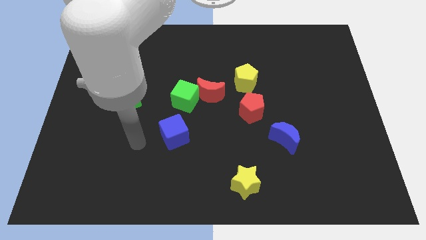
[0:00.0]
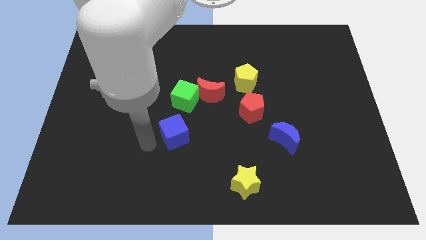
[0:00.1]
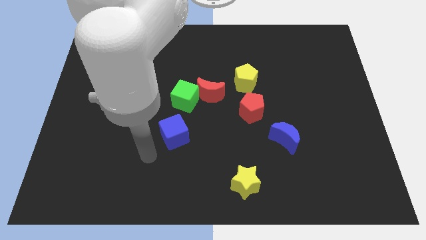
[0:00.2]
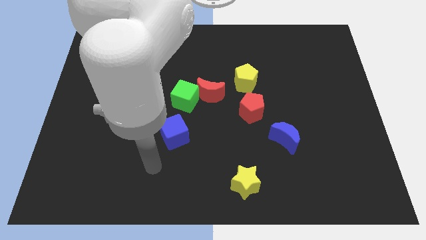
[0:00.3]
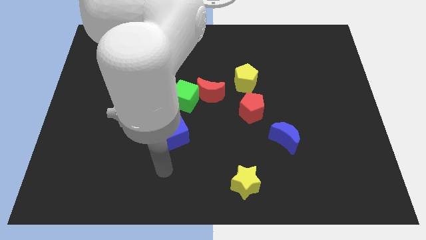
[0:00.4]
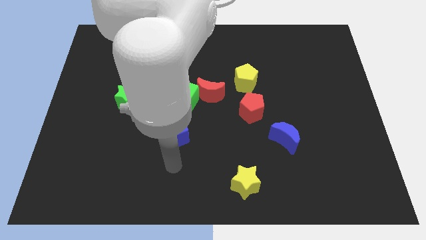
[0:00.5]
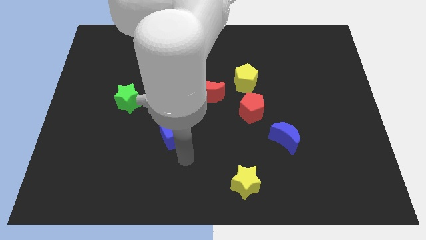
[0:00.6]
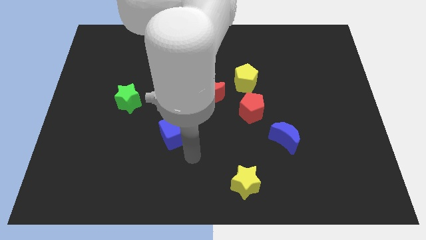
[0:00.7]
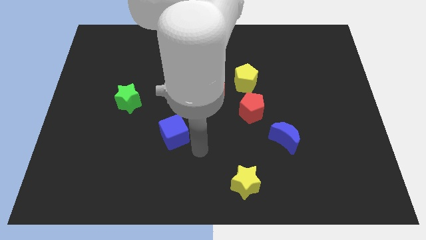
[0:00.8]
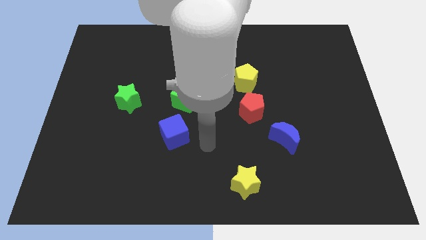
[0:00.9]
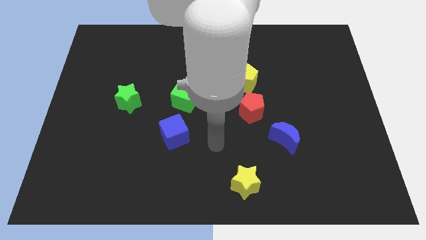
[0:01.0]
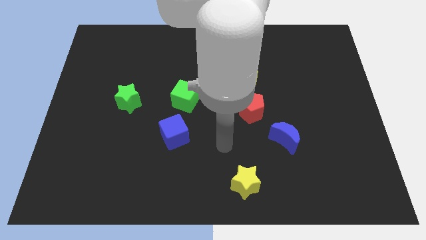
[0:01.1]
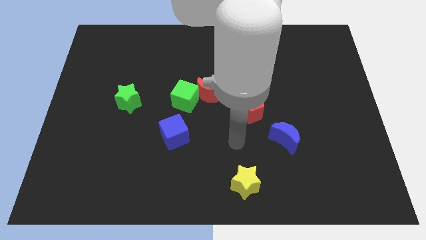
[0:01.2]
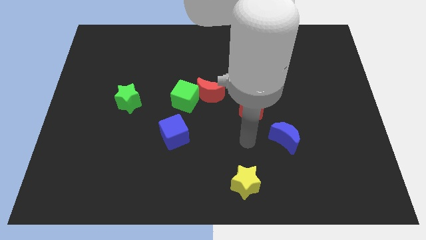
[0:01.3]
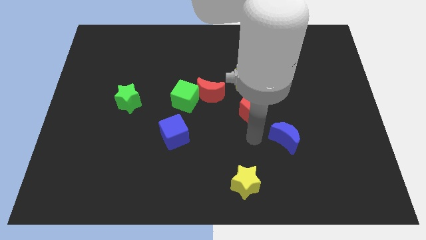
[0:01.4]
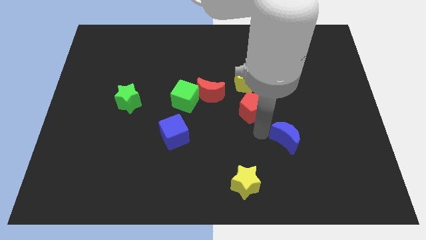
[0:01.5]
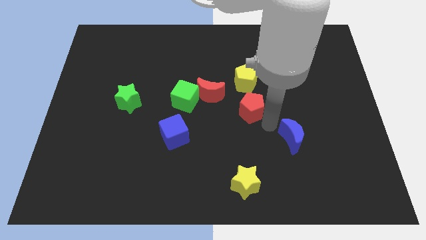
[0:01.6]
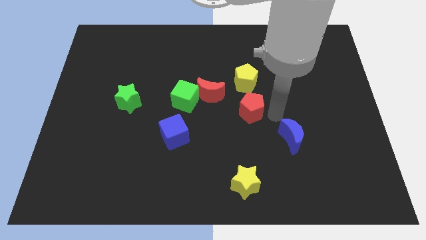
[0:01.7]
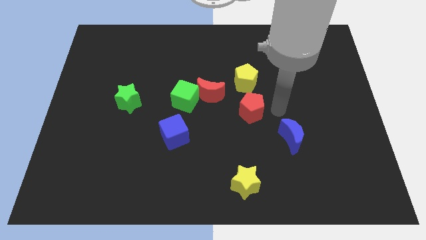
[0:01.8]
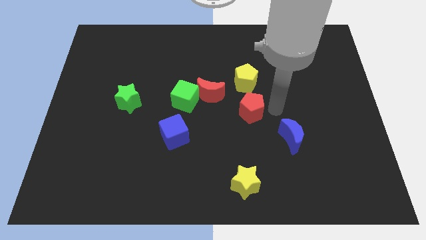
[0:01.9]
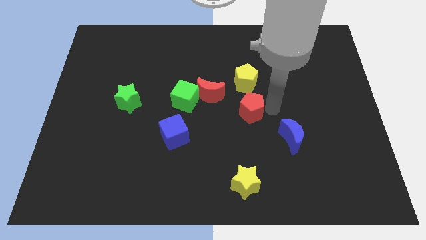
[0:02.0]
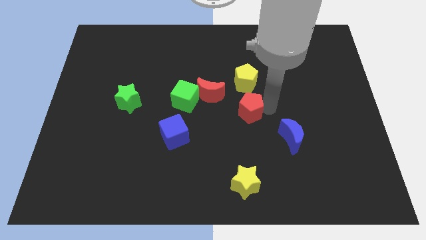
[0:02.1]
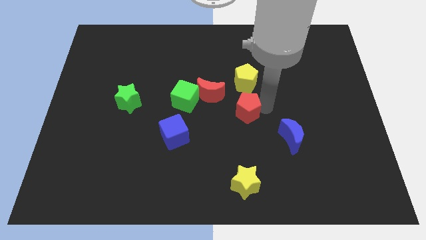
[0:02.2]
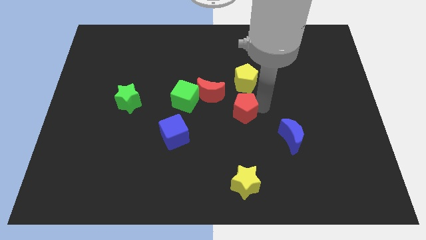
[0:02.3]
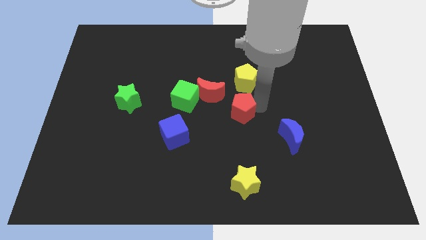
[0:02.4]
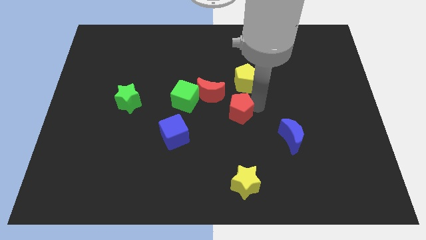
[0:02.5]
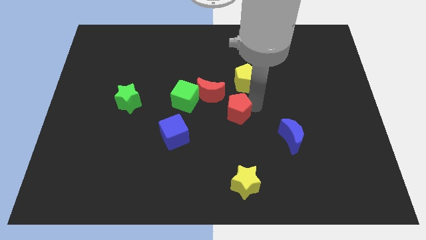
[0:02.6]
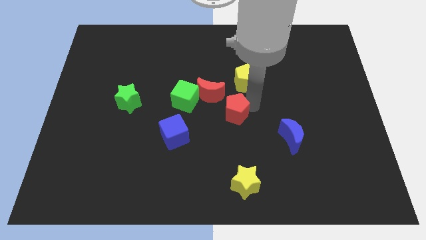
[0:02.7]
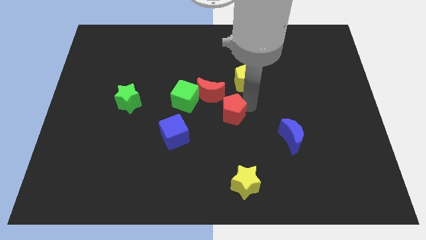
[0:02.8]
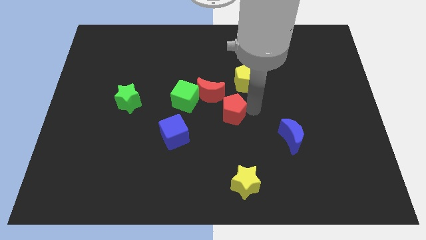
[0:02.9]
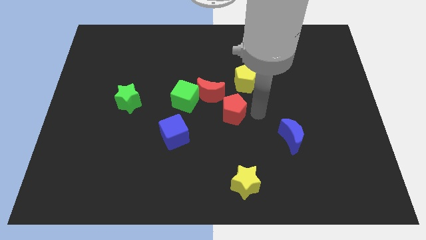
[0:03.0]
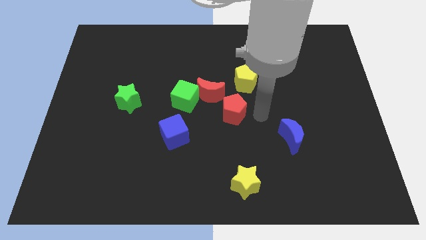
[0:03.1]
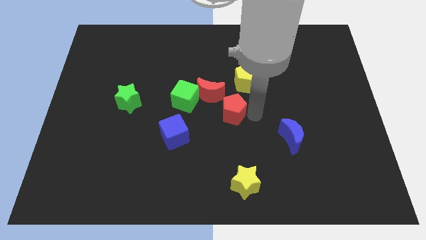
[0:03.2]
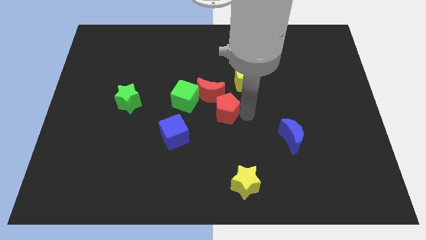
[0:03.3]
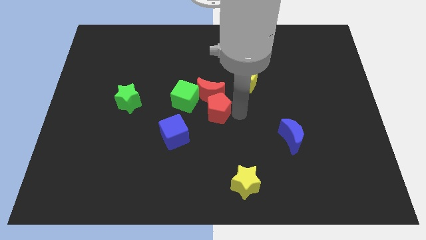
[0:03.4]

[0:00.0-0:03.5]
slightly move the red pentagon left

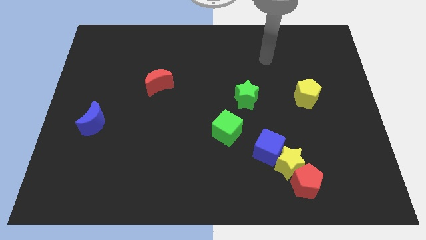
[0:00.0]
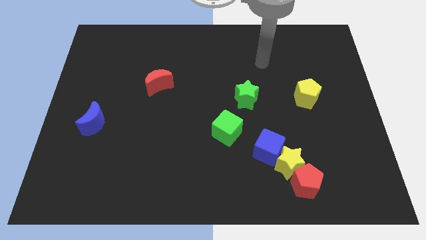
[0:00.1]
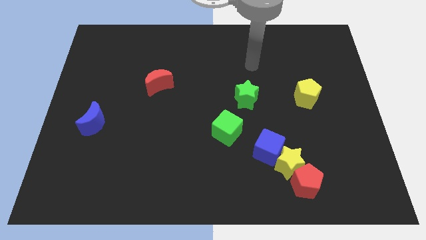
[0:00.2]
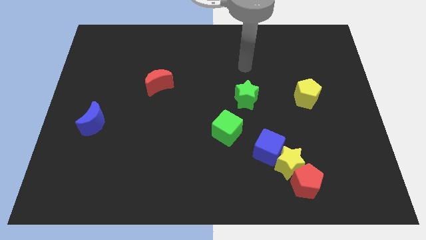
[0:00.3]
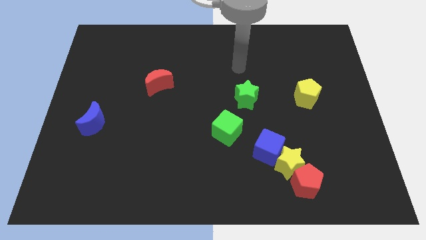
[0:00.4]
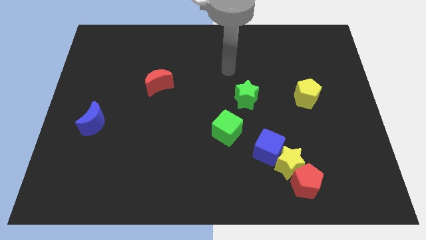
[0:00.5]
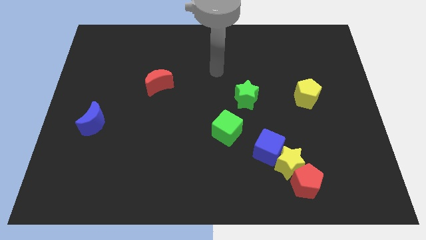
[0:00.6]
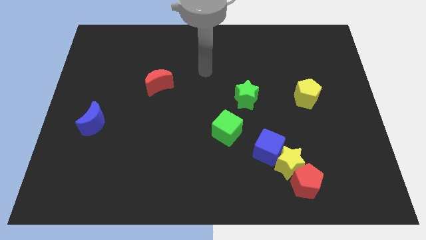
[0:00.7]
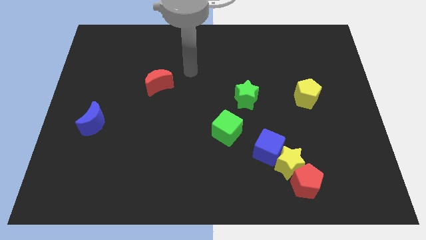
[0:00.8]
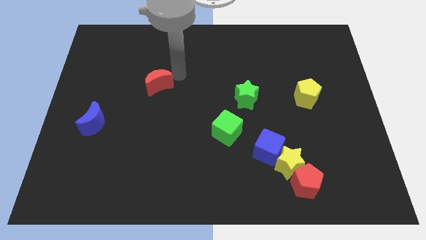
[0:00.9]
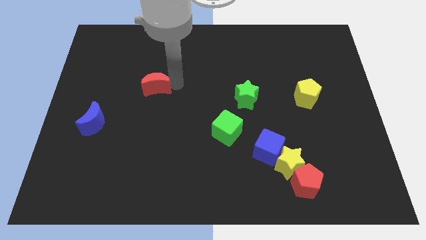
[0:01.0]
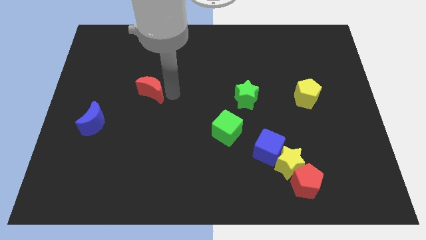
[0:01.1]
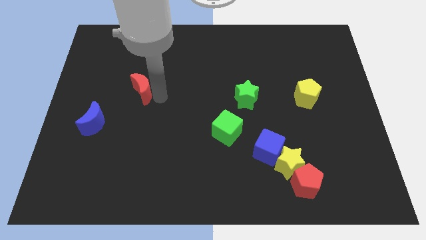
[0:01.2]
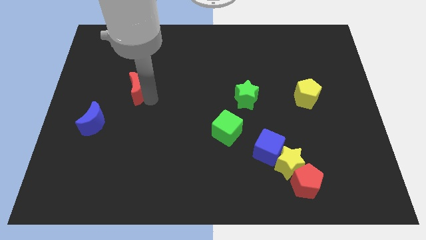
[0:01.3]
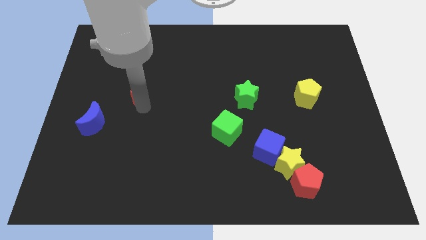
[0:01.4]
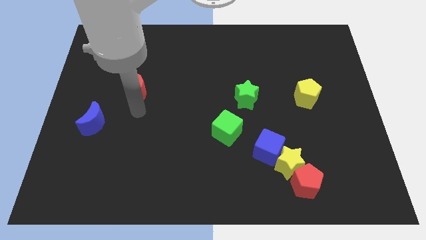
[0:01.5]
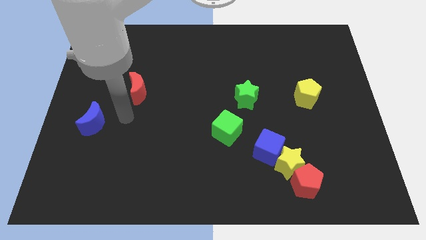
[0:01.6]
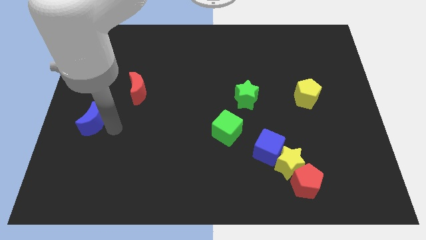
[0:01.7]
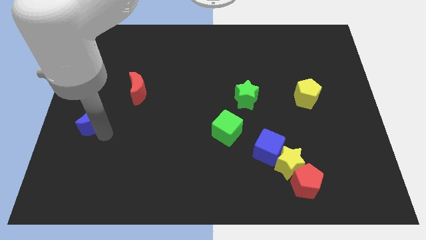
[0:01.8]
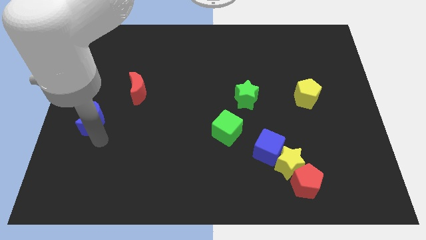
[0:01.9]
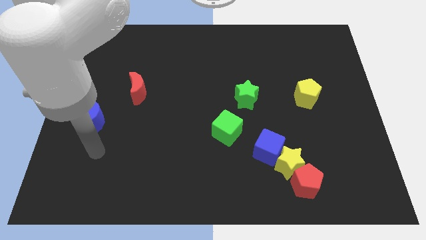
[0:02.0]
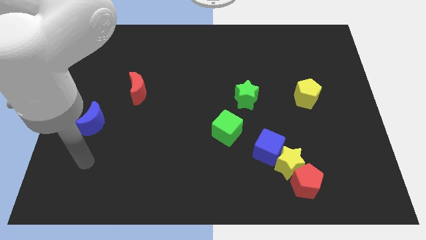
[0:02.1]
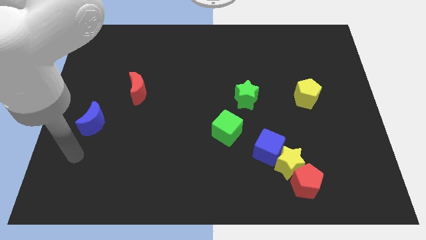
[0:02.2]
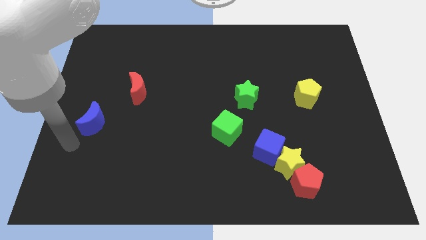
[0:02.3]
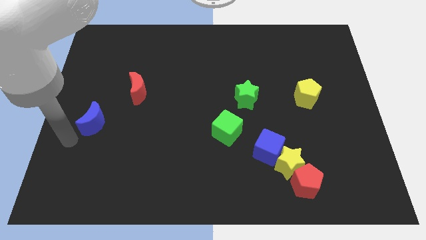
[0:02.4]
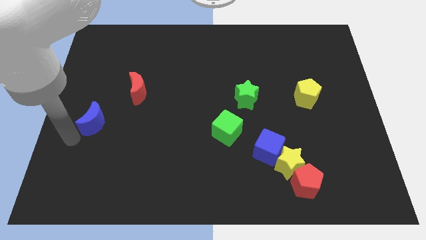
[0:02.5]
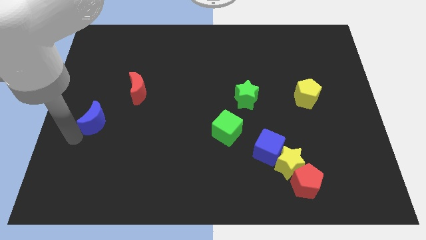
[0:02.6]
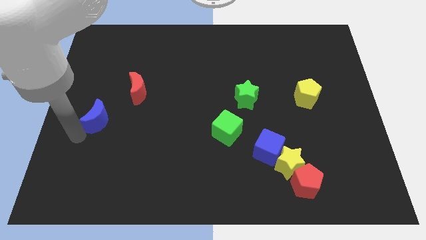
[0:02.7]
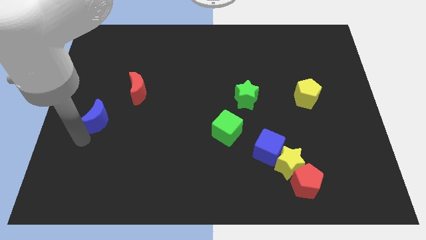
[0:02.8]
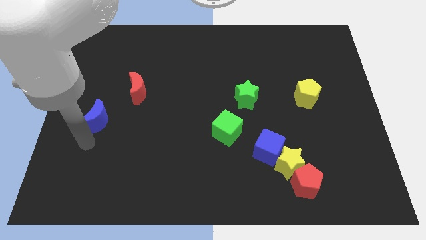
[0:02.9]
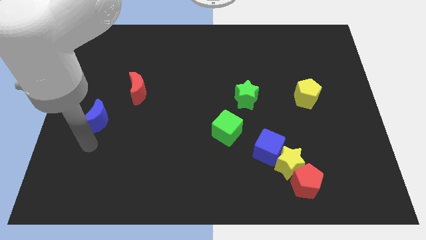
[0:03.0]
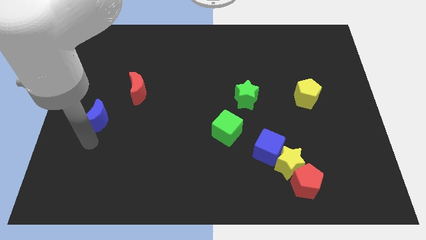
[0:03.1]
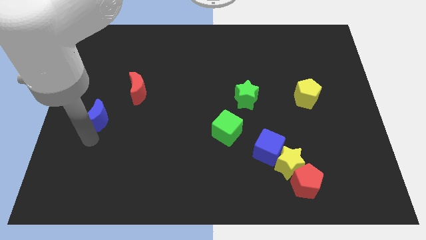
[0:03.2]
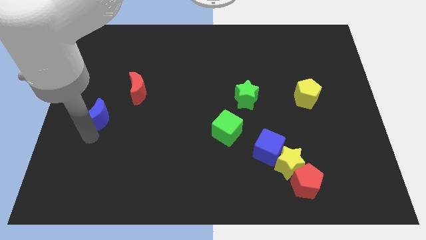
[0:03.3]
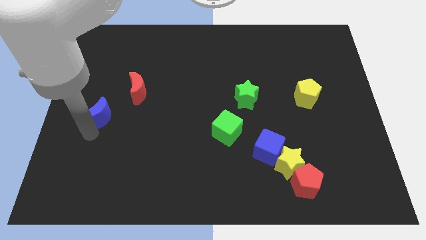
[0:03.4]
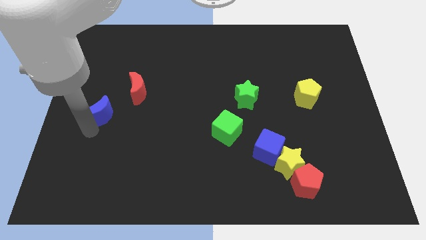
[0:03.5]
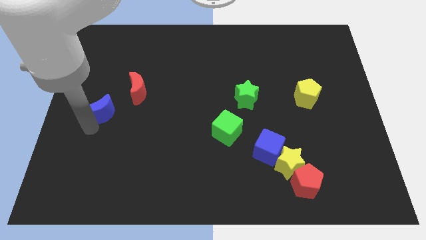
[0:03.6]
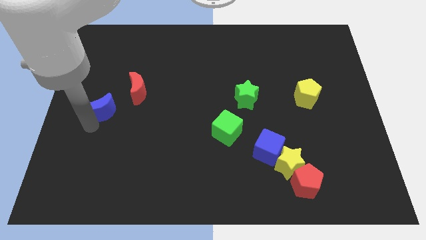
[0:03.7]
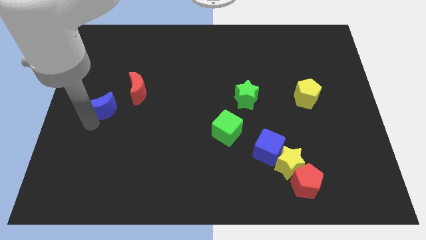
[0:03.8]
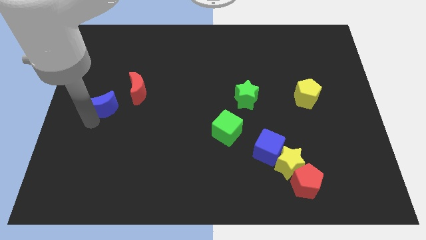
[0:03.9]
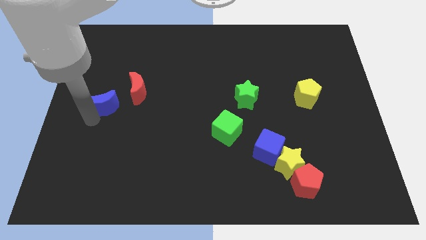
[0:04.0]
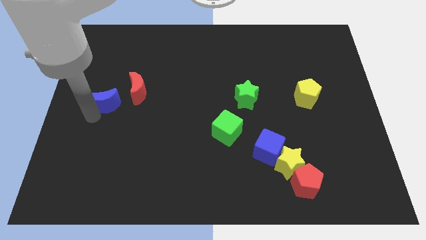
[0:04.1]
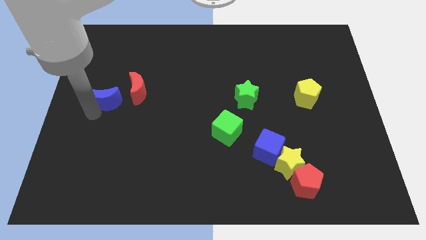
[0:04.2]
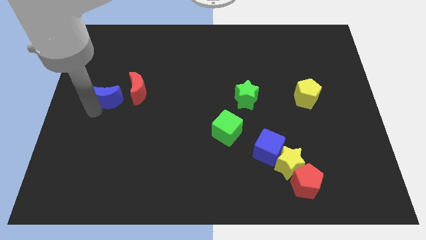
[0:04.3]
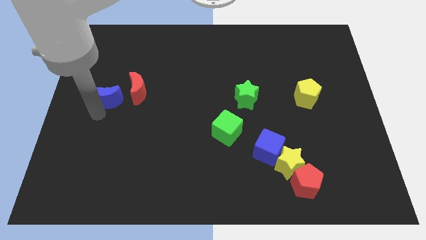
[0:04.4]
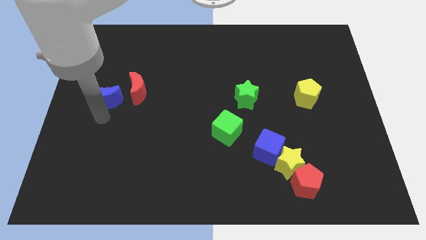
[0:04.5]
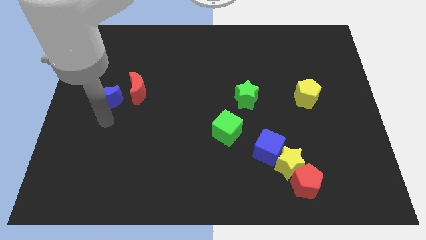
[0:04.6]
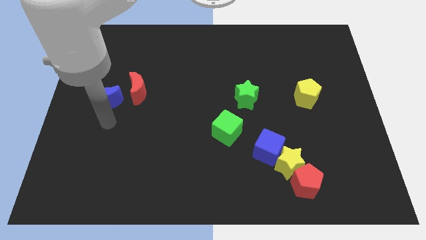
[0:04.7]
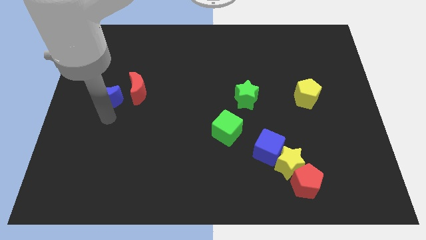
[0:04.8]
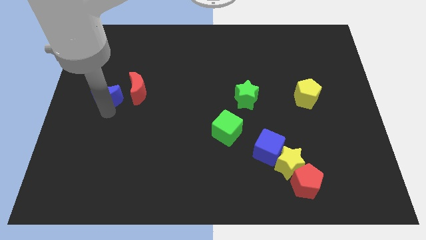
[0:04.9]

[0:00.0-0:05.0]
slide the blue moon a little upwards
